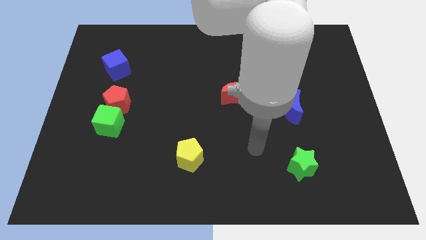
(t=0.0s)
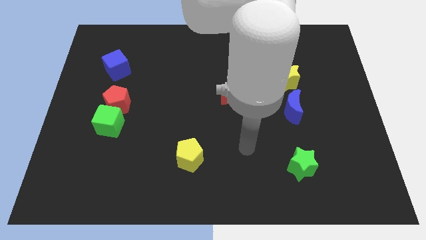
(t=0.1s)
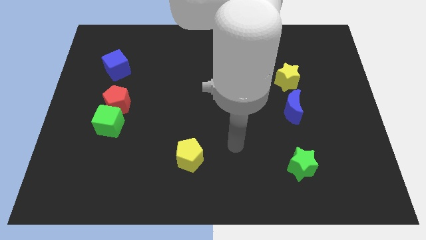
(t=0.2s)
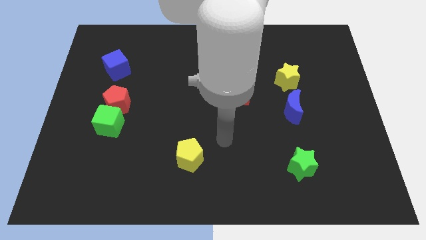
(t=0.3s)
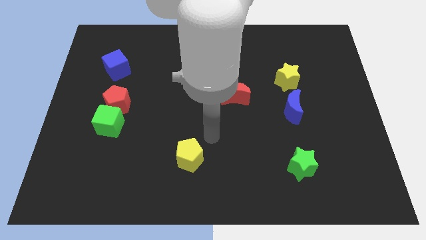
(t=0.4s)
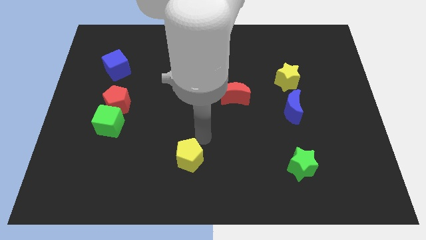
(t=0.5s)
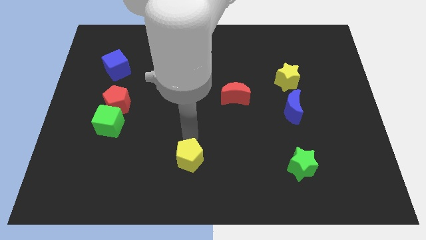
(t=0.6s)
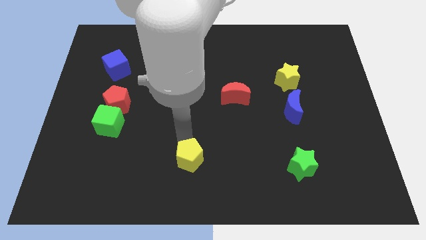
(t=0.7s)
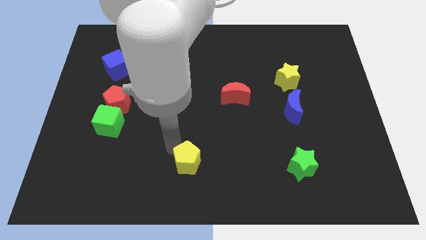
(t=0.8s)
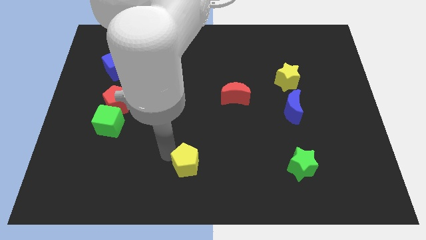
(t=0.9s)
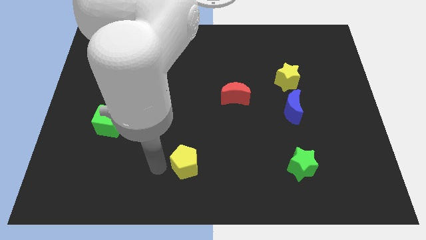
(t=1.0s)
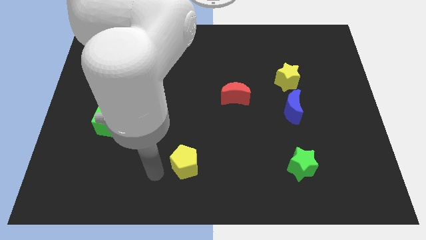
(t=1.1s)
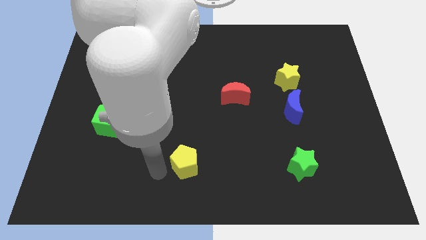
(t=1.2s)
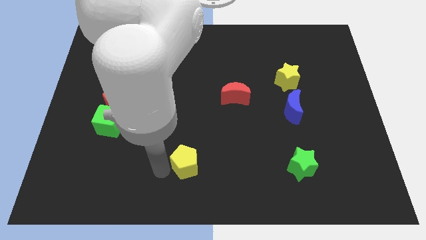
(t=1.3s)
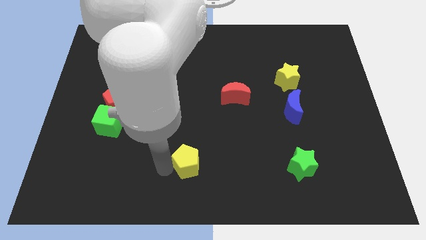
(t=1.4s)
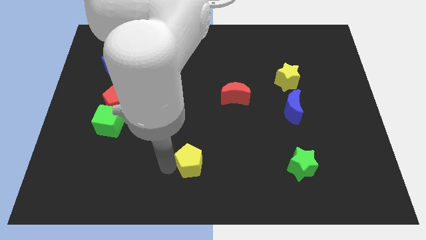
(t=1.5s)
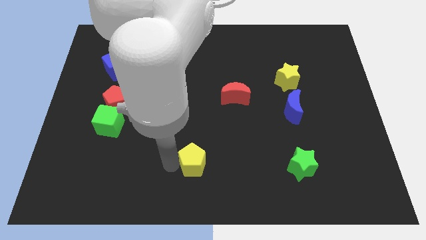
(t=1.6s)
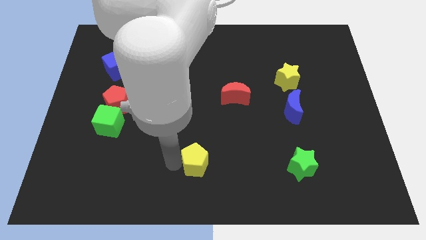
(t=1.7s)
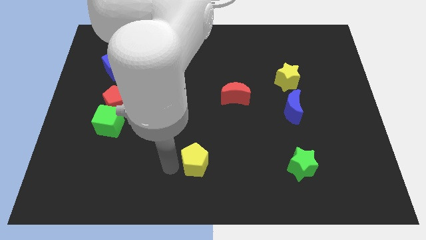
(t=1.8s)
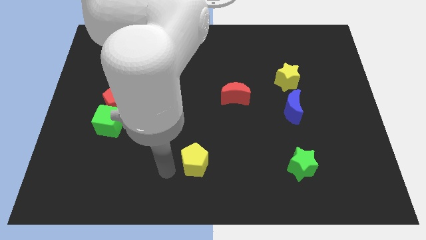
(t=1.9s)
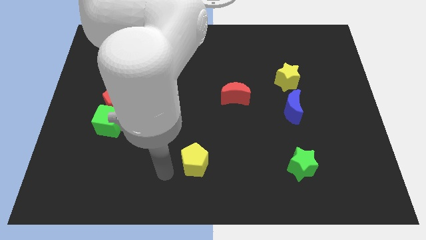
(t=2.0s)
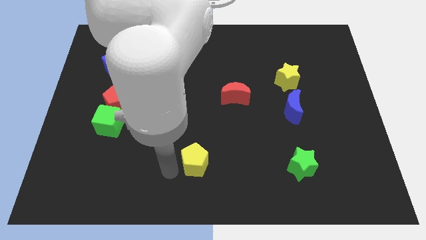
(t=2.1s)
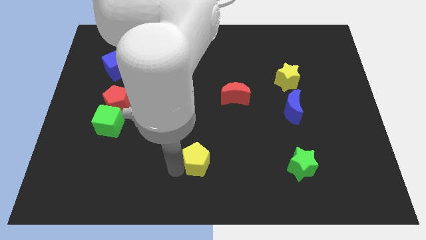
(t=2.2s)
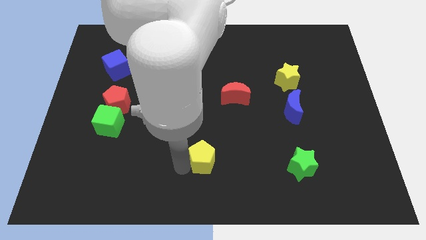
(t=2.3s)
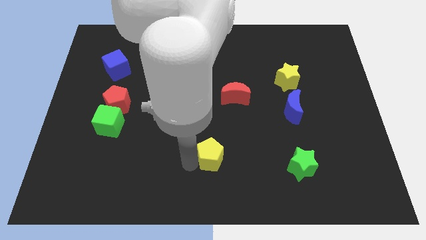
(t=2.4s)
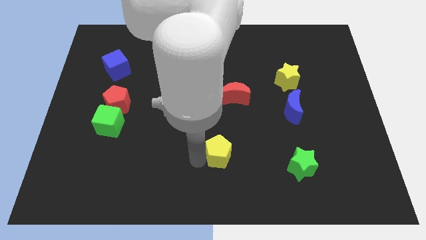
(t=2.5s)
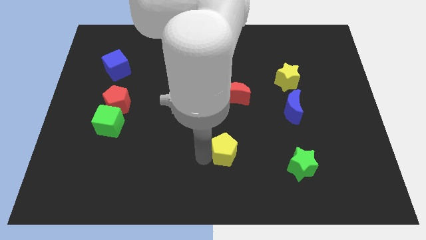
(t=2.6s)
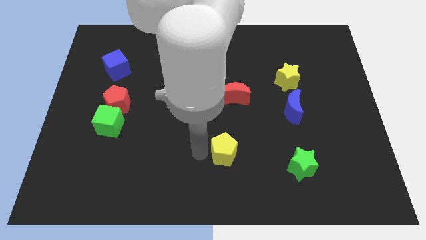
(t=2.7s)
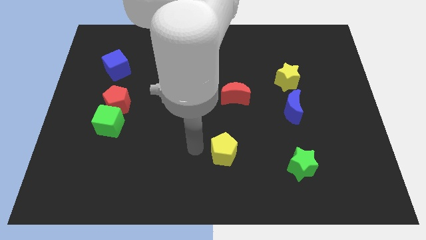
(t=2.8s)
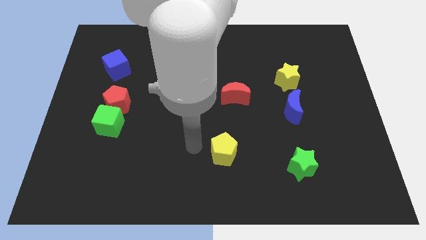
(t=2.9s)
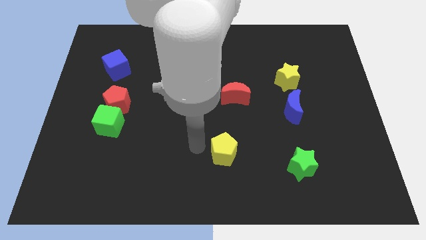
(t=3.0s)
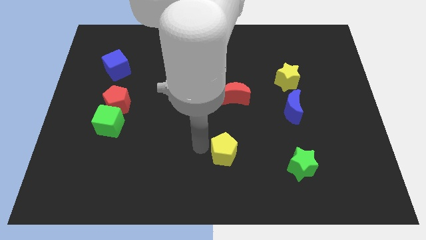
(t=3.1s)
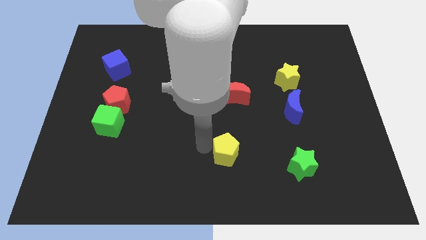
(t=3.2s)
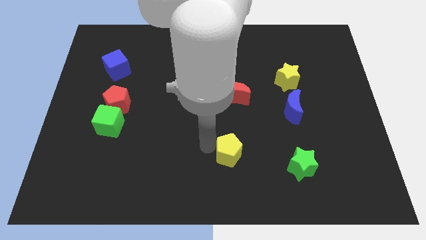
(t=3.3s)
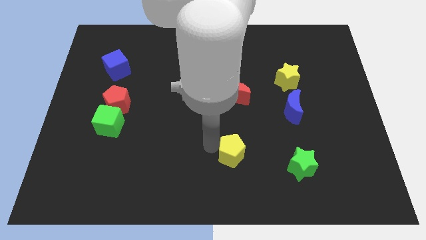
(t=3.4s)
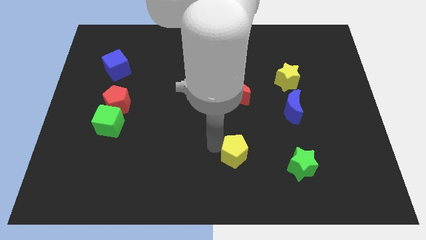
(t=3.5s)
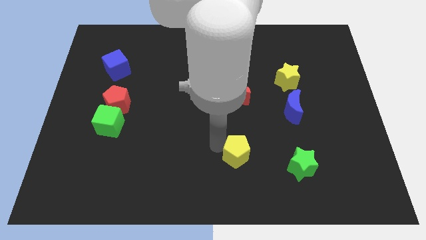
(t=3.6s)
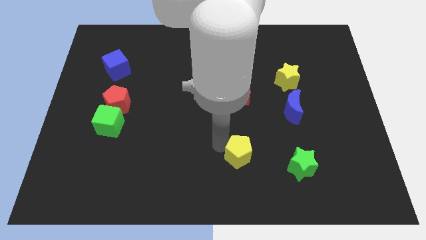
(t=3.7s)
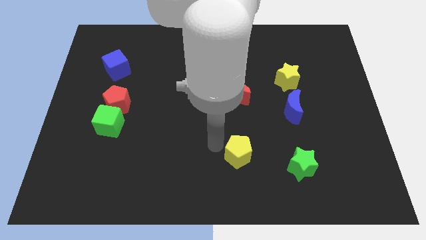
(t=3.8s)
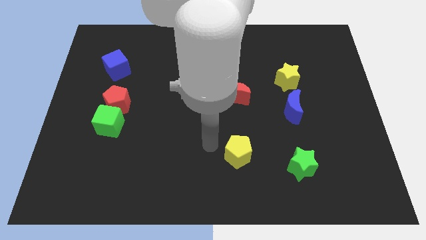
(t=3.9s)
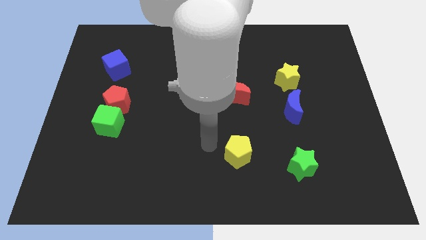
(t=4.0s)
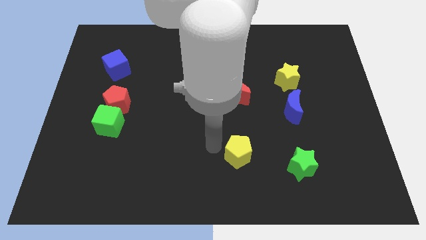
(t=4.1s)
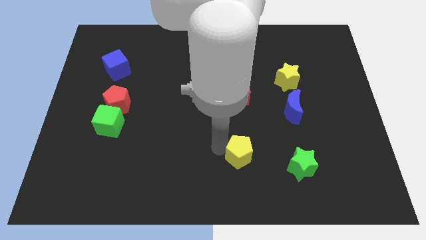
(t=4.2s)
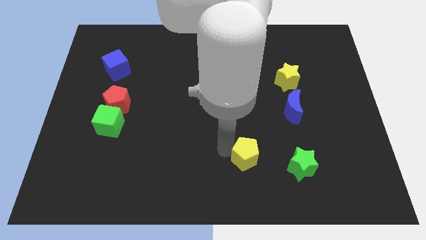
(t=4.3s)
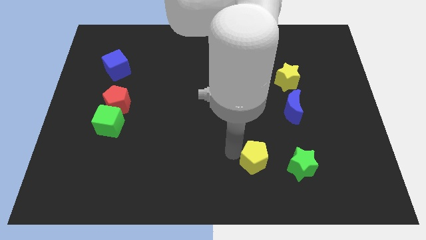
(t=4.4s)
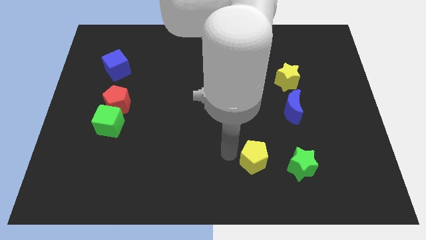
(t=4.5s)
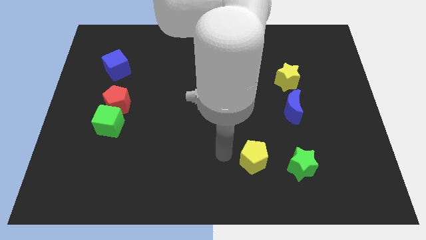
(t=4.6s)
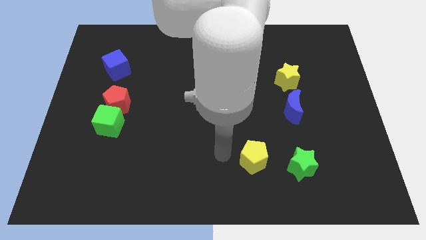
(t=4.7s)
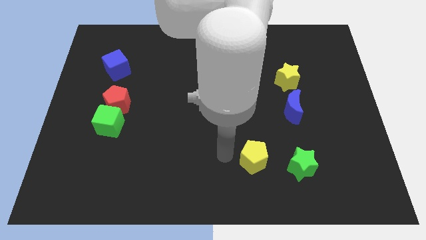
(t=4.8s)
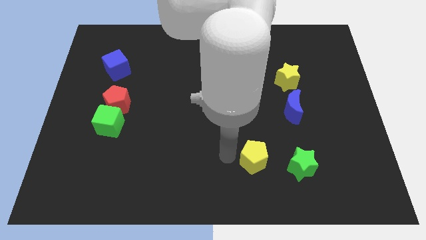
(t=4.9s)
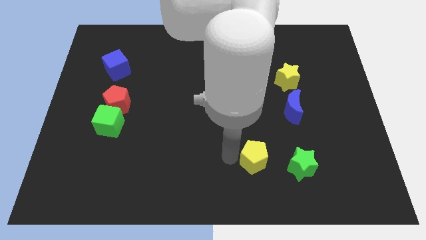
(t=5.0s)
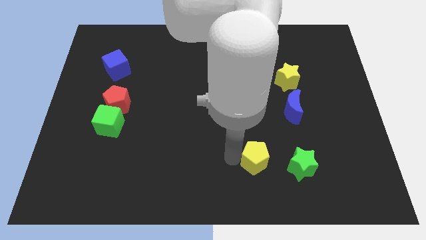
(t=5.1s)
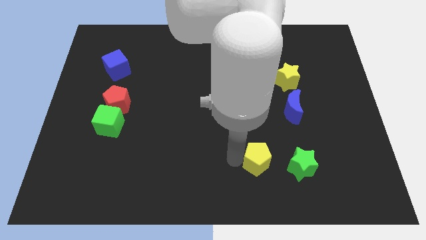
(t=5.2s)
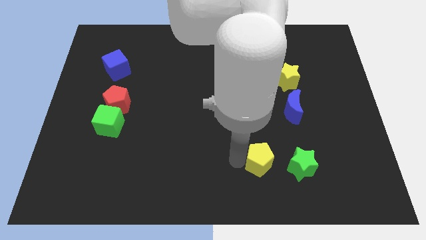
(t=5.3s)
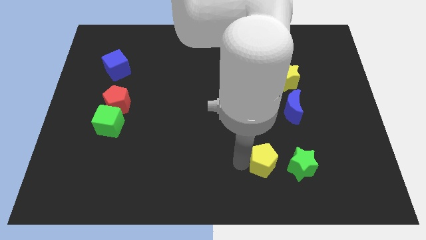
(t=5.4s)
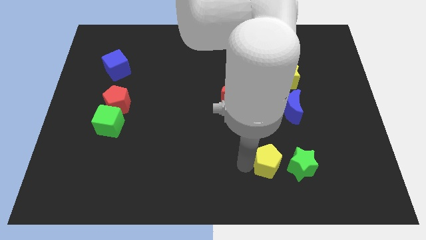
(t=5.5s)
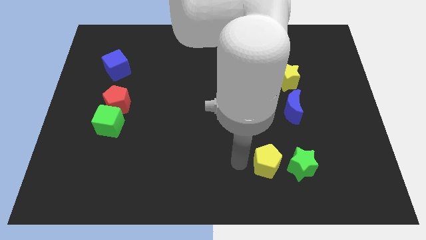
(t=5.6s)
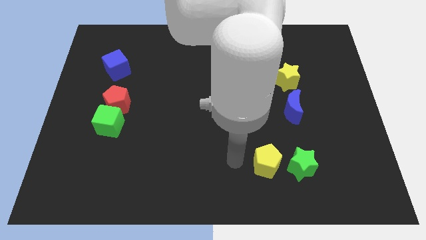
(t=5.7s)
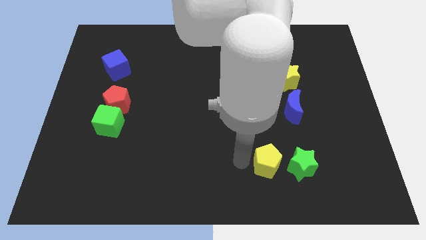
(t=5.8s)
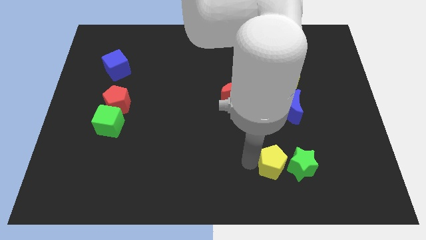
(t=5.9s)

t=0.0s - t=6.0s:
move the yellow pentagon towards the green star

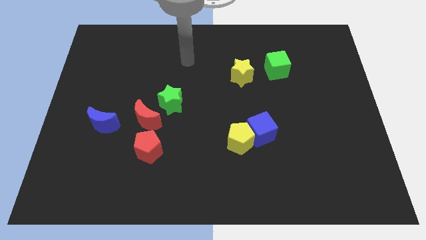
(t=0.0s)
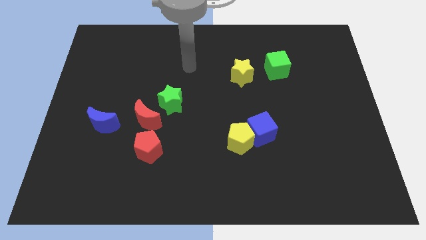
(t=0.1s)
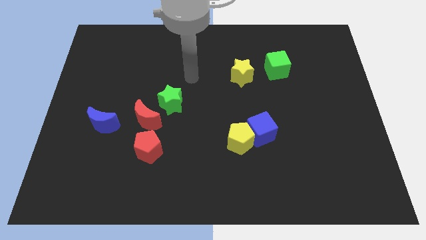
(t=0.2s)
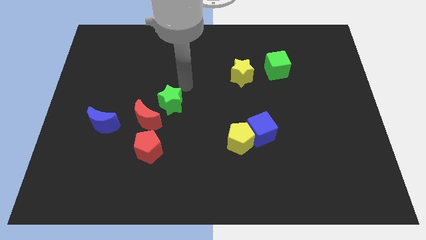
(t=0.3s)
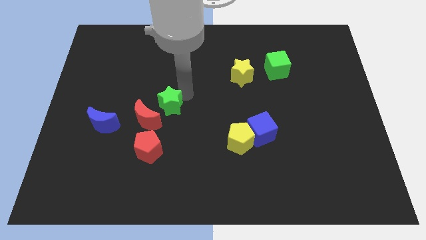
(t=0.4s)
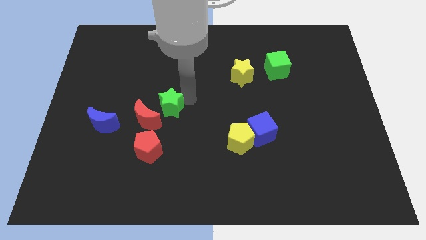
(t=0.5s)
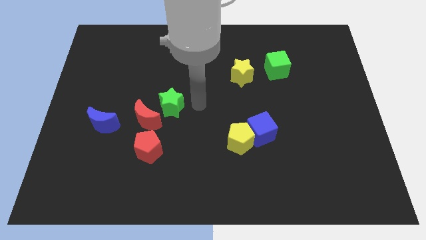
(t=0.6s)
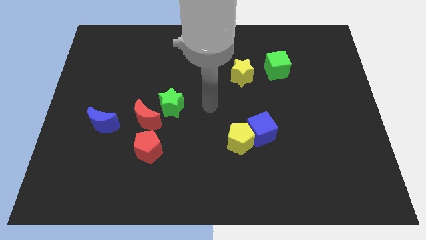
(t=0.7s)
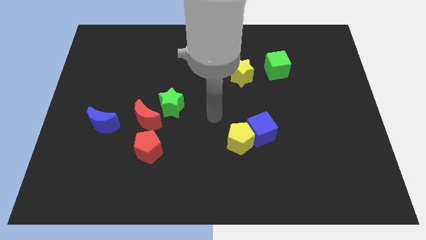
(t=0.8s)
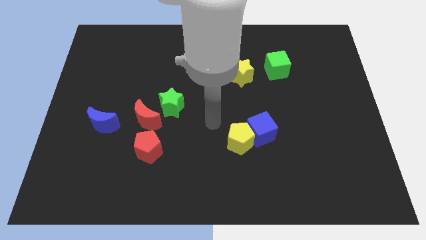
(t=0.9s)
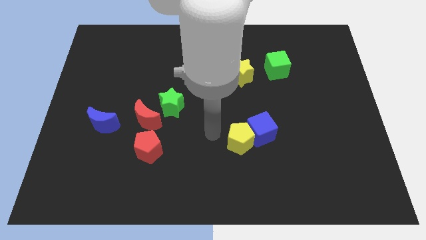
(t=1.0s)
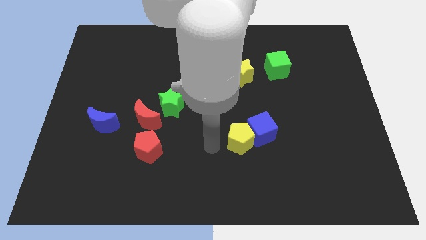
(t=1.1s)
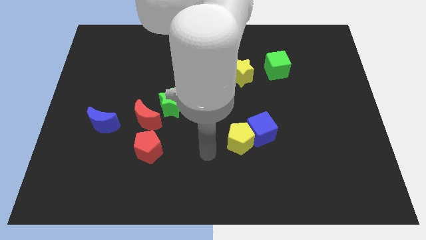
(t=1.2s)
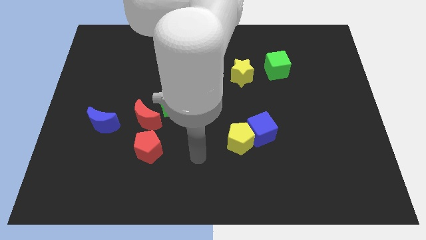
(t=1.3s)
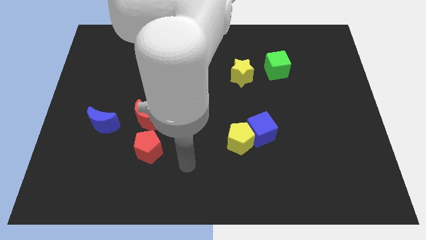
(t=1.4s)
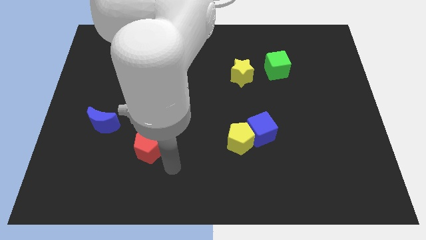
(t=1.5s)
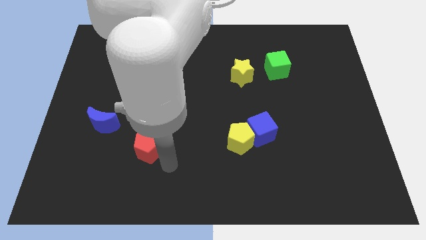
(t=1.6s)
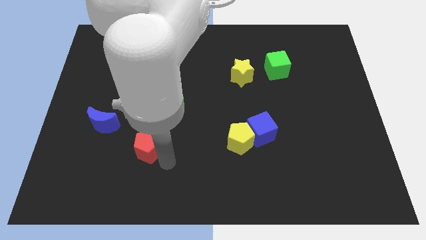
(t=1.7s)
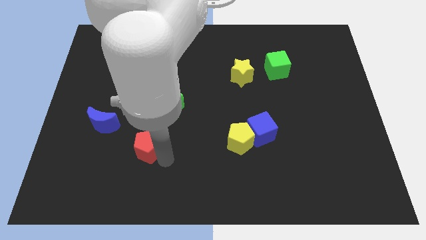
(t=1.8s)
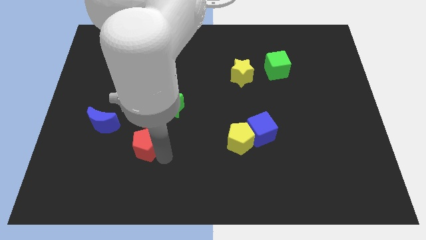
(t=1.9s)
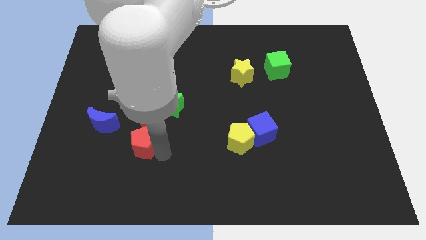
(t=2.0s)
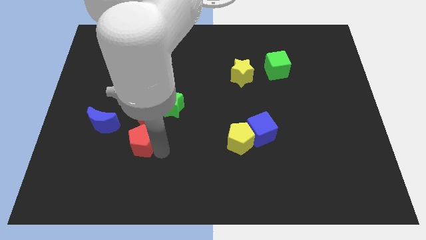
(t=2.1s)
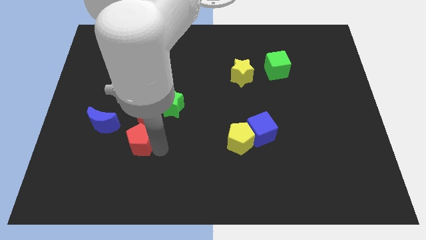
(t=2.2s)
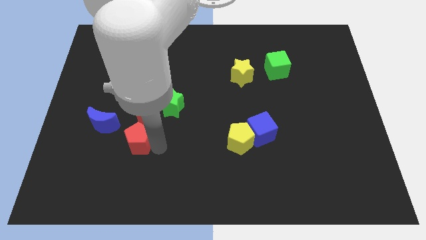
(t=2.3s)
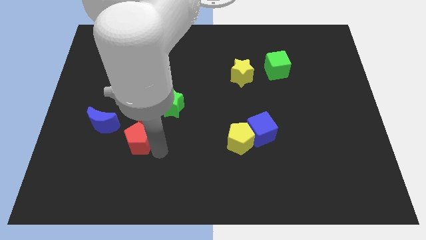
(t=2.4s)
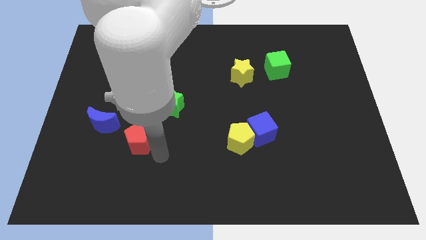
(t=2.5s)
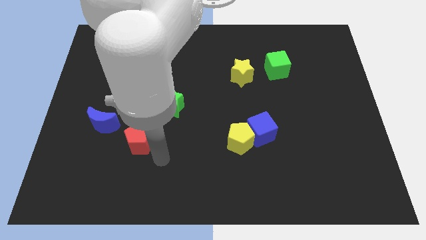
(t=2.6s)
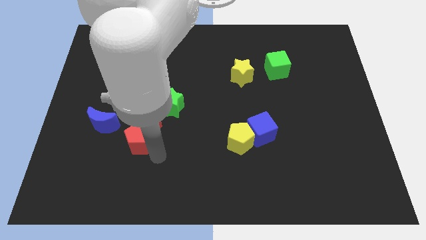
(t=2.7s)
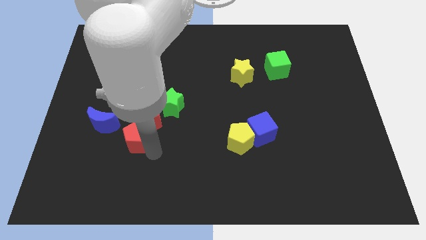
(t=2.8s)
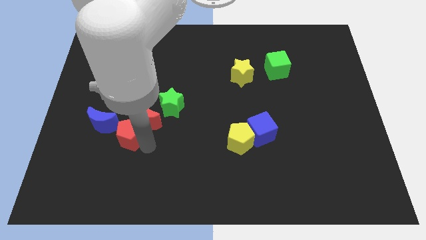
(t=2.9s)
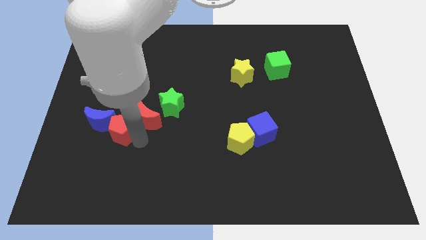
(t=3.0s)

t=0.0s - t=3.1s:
slide the red pentagon close to the blue moon
